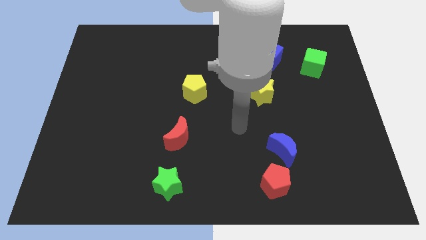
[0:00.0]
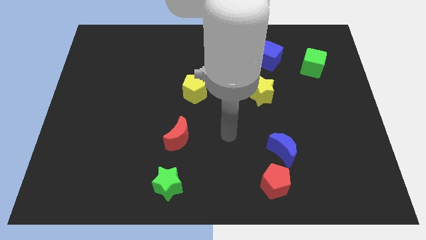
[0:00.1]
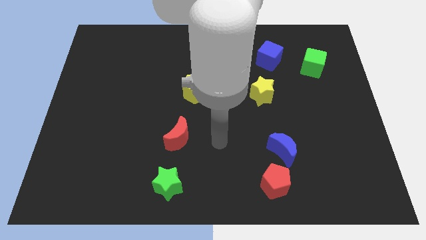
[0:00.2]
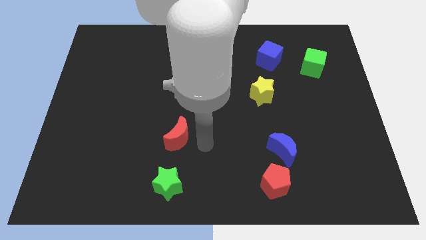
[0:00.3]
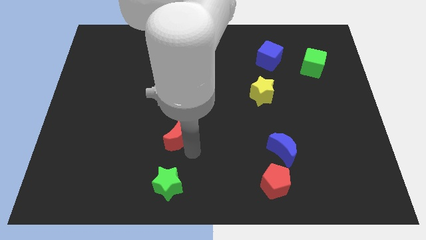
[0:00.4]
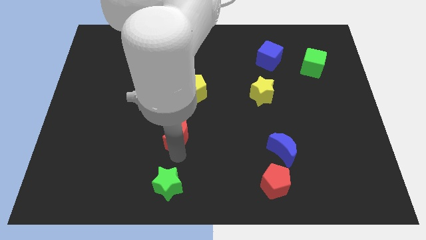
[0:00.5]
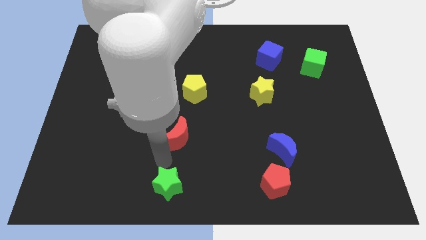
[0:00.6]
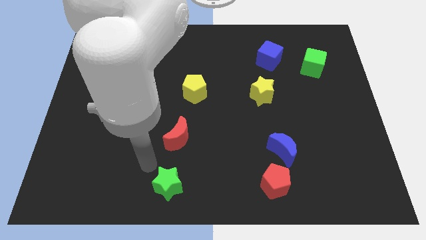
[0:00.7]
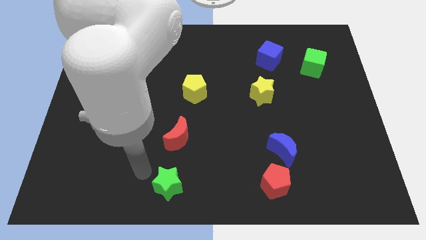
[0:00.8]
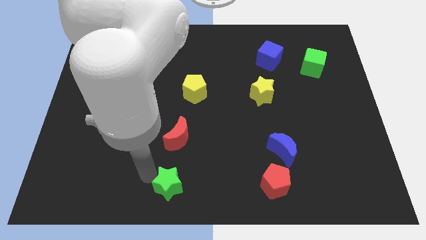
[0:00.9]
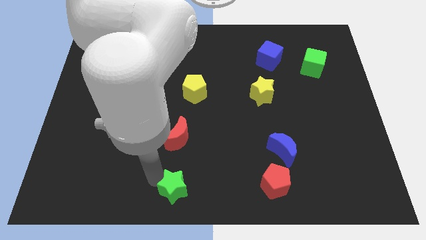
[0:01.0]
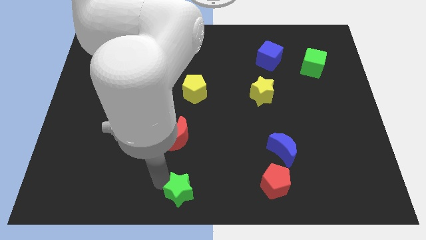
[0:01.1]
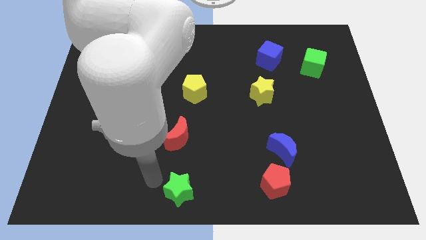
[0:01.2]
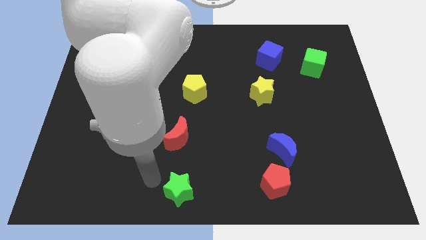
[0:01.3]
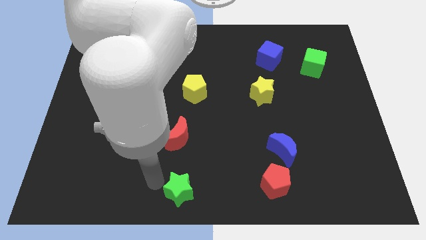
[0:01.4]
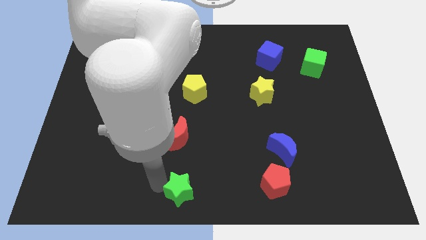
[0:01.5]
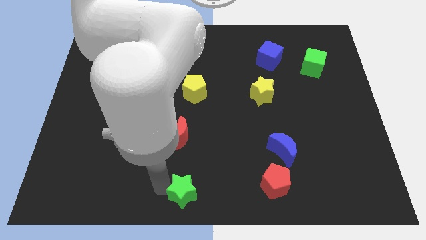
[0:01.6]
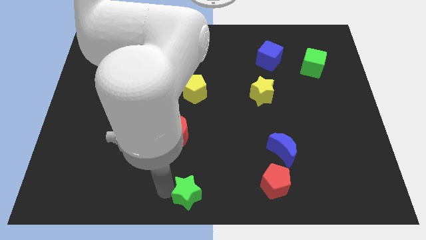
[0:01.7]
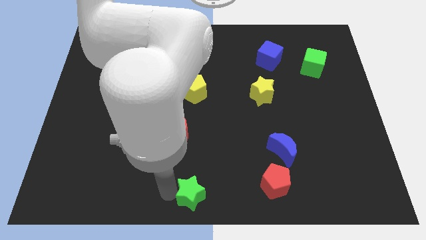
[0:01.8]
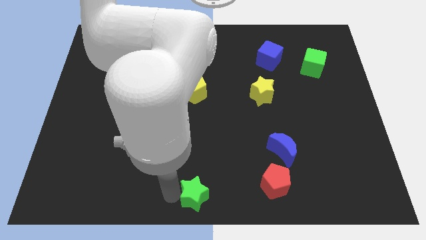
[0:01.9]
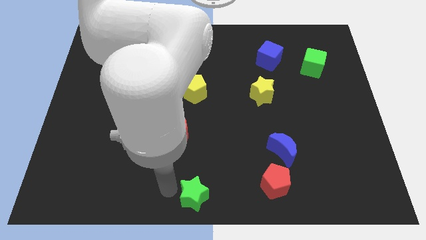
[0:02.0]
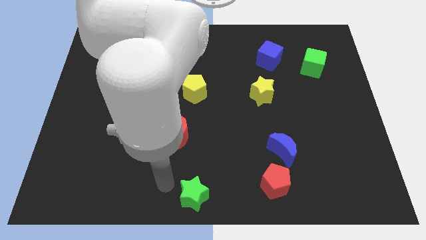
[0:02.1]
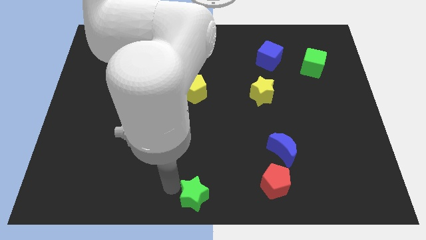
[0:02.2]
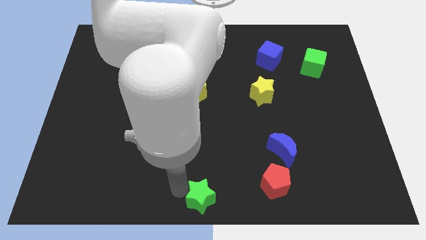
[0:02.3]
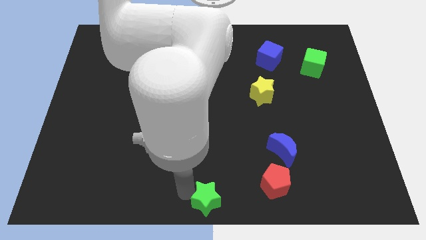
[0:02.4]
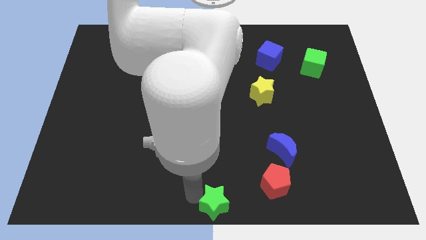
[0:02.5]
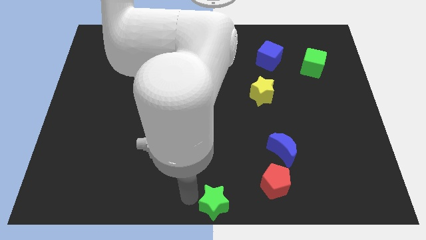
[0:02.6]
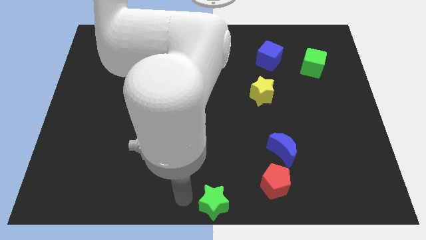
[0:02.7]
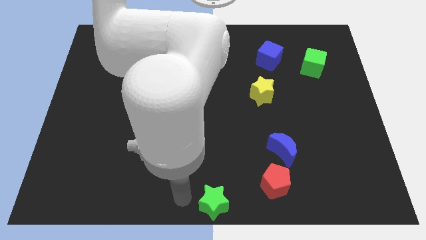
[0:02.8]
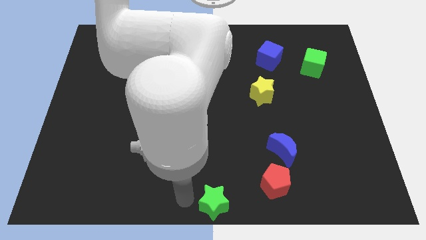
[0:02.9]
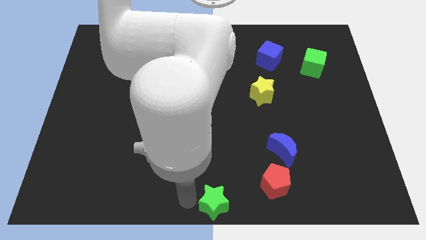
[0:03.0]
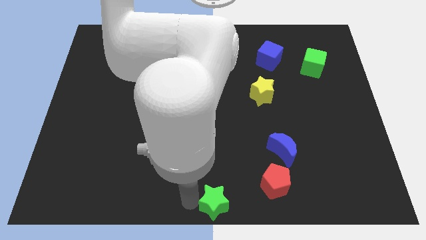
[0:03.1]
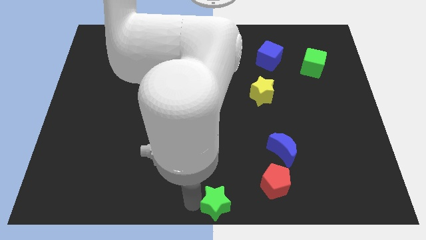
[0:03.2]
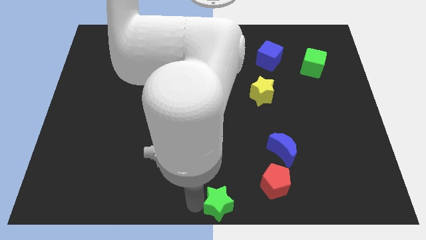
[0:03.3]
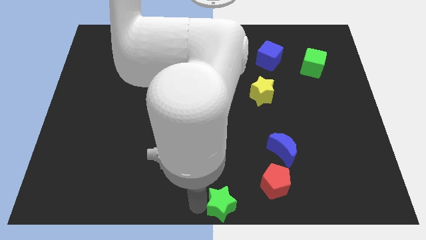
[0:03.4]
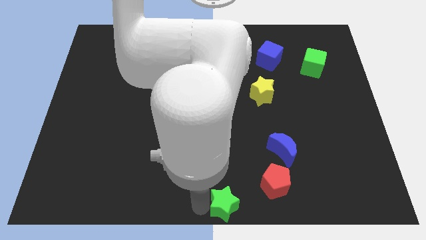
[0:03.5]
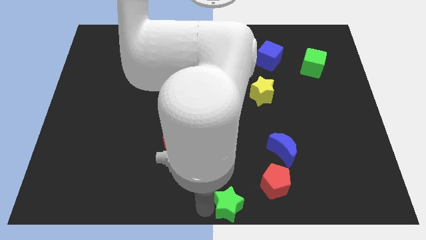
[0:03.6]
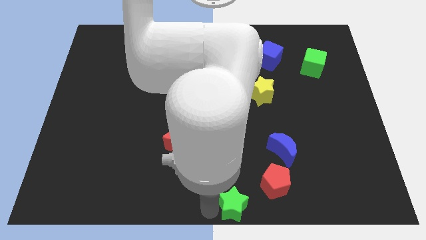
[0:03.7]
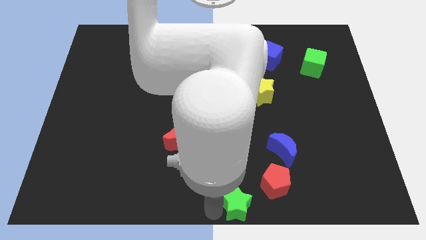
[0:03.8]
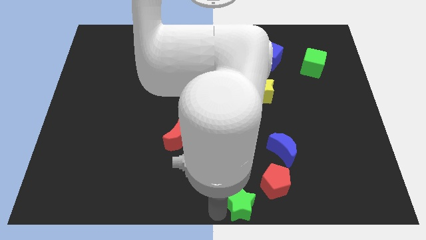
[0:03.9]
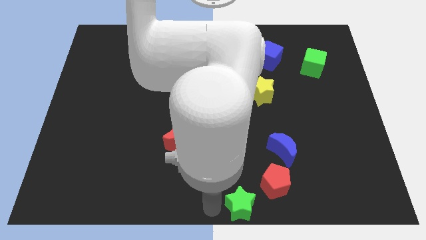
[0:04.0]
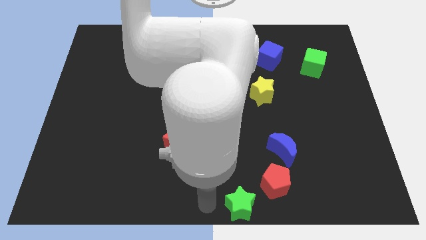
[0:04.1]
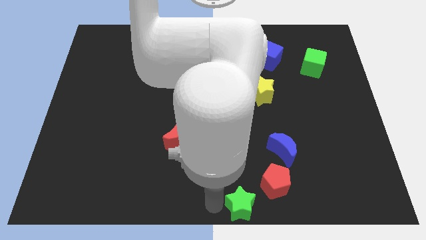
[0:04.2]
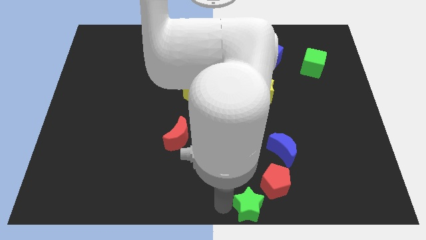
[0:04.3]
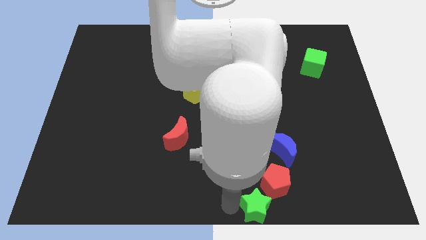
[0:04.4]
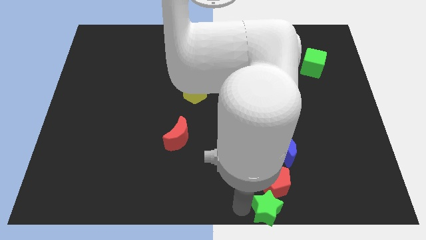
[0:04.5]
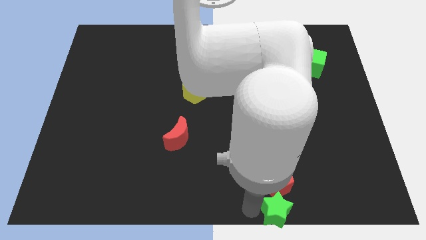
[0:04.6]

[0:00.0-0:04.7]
slide the green star right

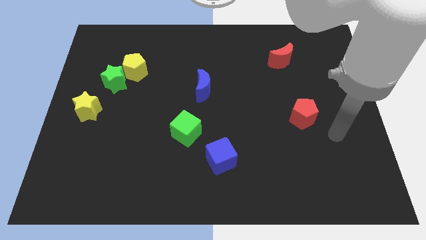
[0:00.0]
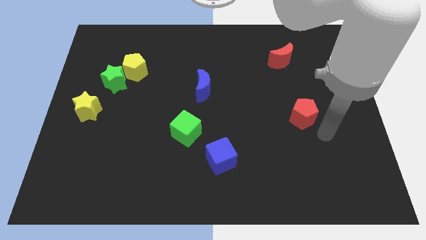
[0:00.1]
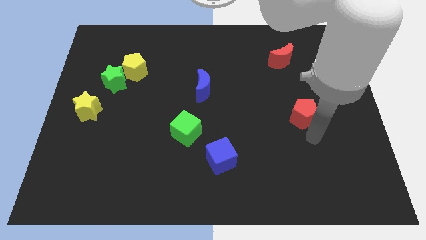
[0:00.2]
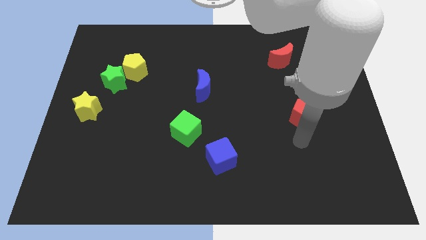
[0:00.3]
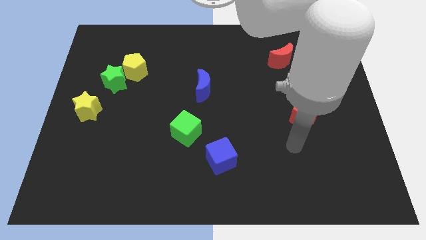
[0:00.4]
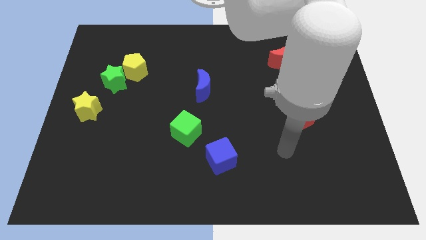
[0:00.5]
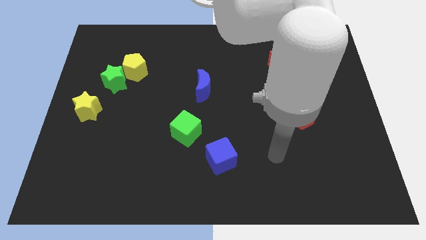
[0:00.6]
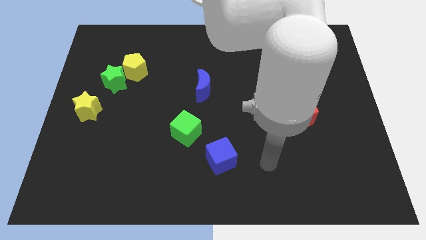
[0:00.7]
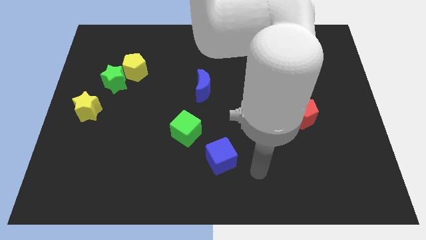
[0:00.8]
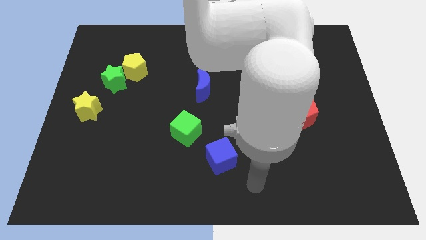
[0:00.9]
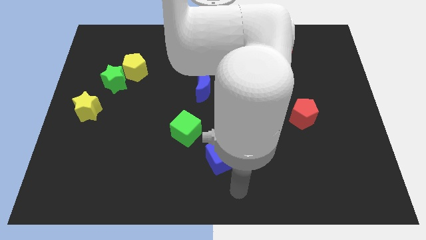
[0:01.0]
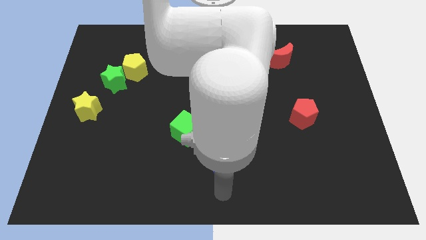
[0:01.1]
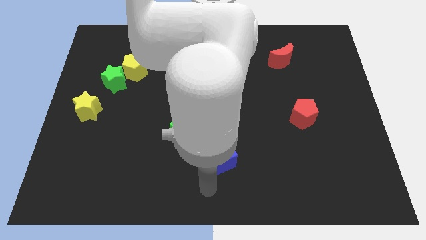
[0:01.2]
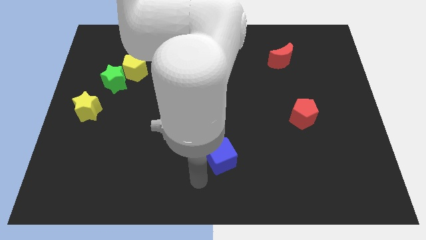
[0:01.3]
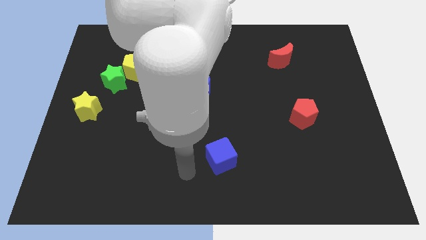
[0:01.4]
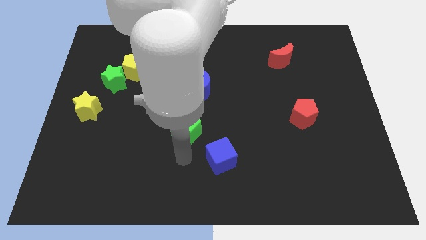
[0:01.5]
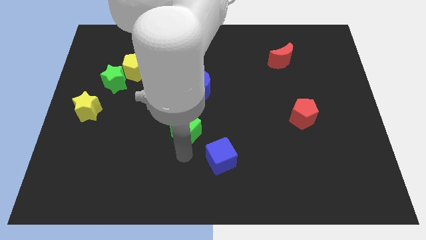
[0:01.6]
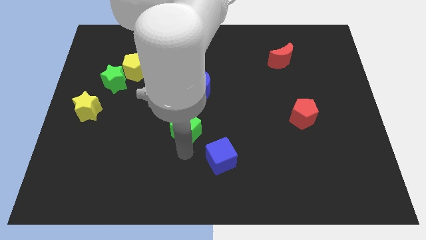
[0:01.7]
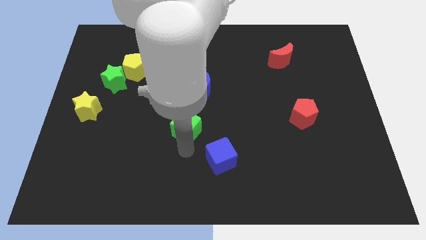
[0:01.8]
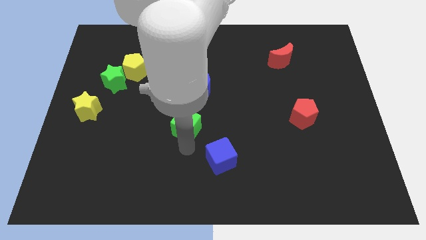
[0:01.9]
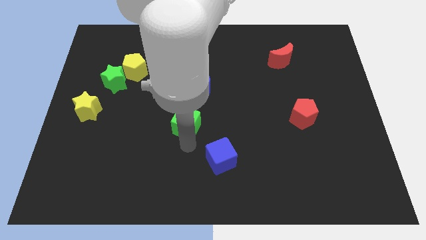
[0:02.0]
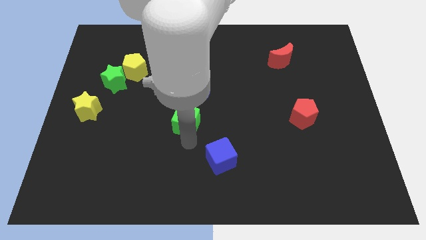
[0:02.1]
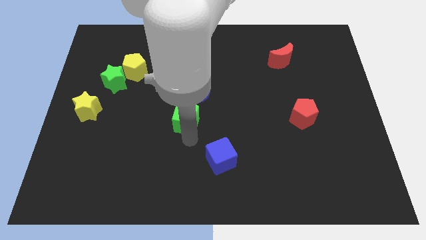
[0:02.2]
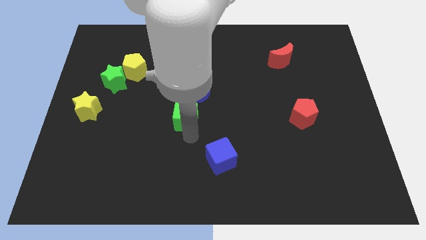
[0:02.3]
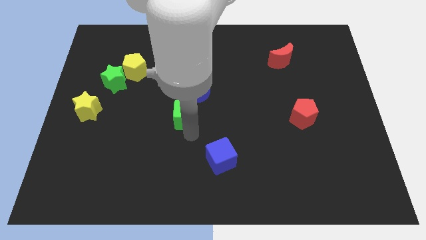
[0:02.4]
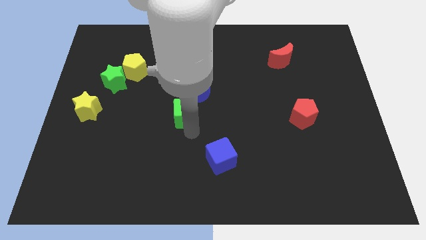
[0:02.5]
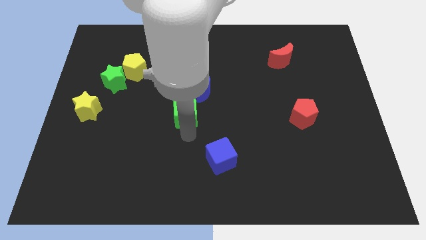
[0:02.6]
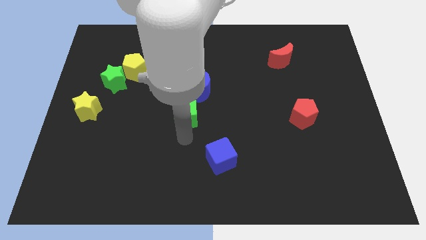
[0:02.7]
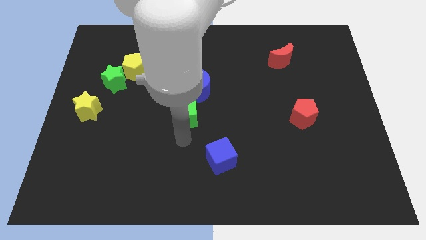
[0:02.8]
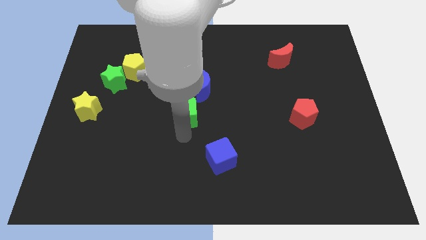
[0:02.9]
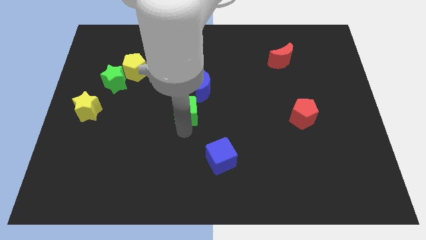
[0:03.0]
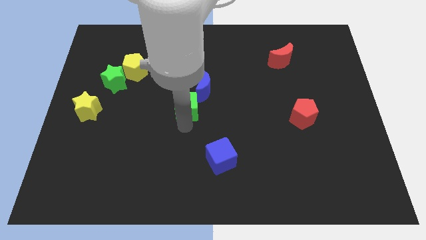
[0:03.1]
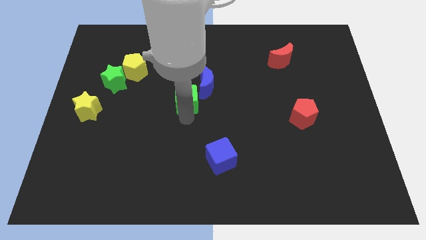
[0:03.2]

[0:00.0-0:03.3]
slightly slide the green cube up
